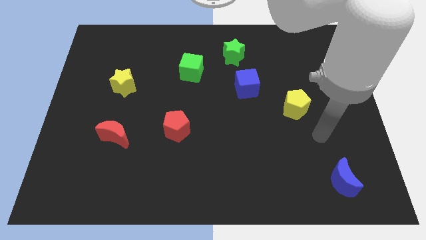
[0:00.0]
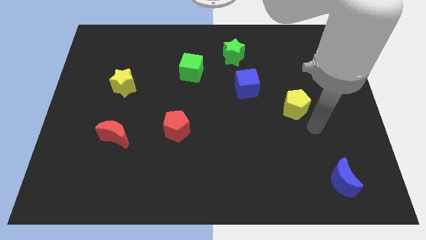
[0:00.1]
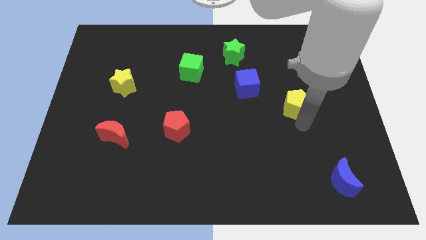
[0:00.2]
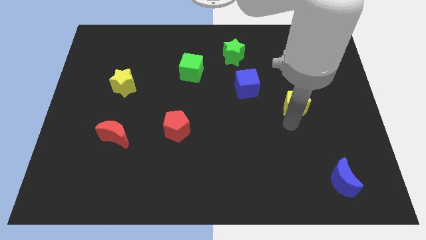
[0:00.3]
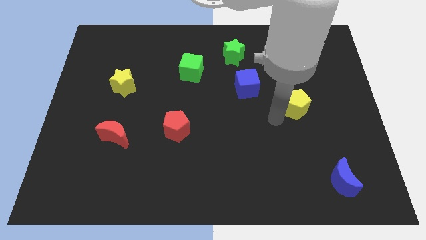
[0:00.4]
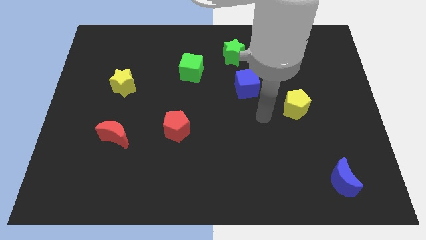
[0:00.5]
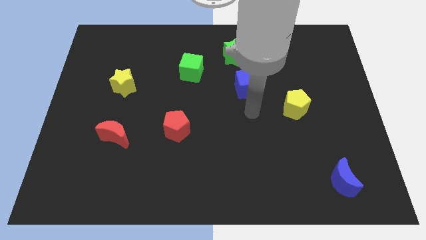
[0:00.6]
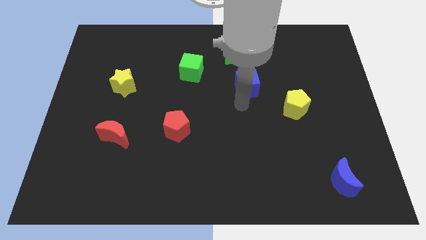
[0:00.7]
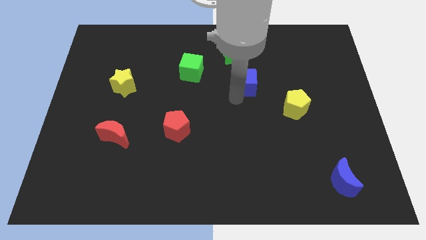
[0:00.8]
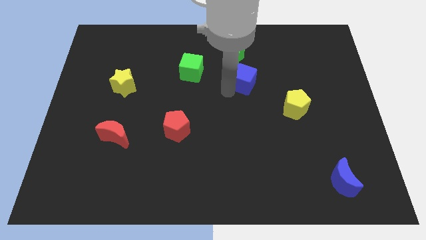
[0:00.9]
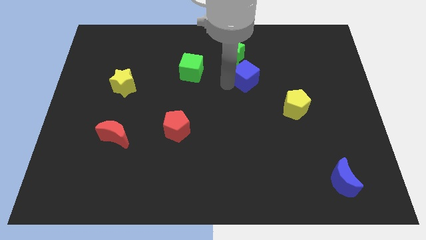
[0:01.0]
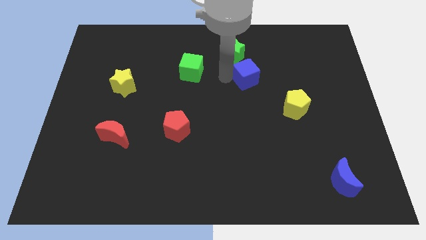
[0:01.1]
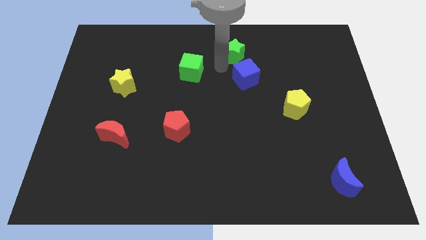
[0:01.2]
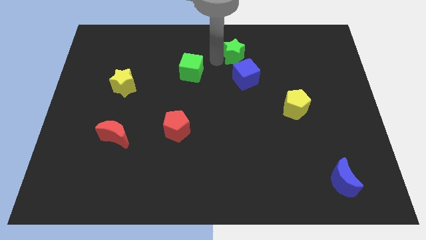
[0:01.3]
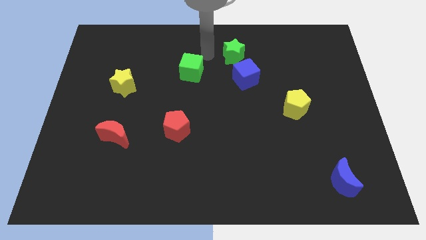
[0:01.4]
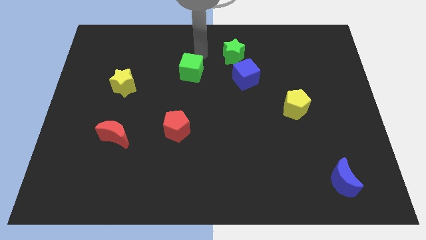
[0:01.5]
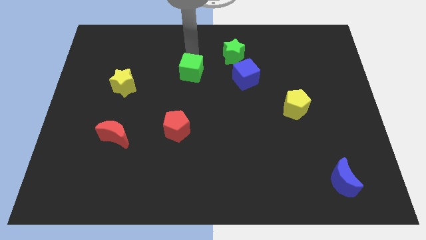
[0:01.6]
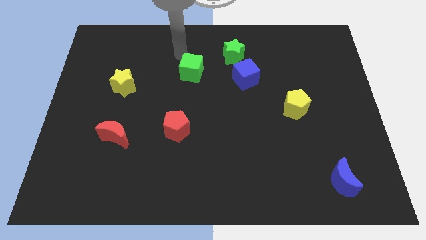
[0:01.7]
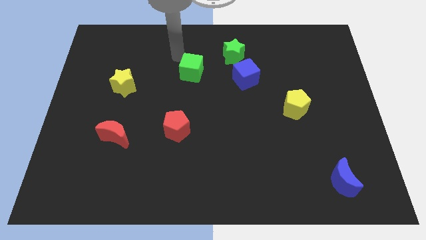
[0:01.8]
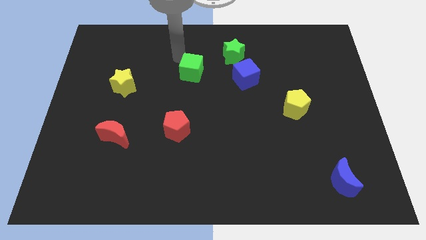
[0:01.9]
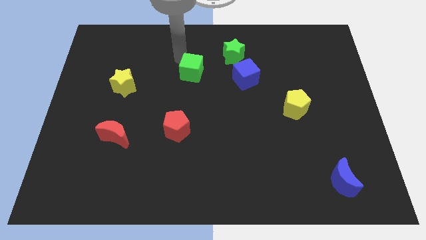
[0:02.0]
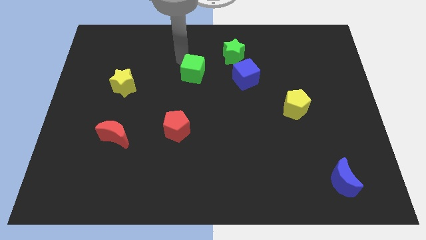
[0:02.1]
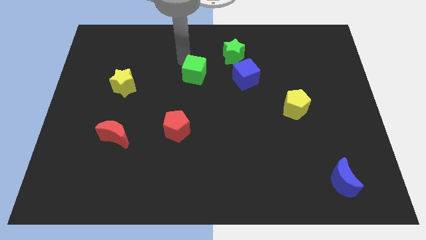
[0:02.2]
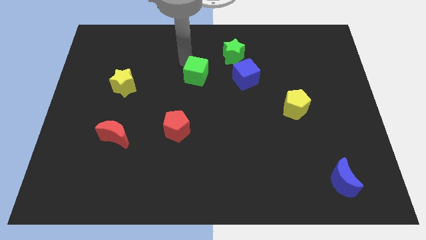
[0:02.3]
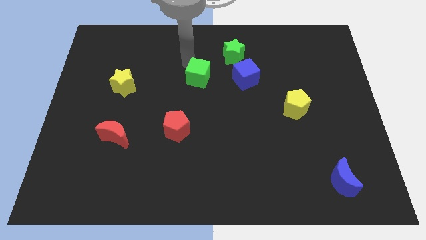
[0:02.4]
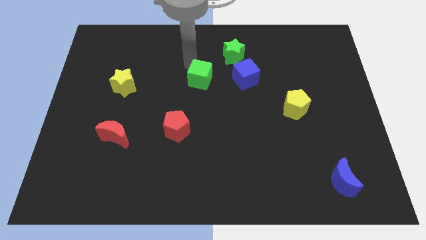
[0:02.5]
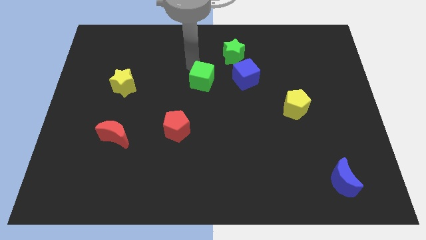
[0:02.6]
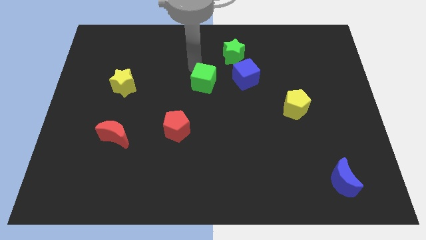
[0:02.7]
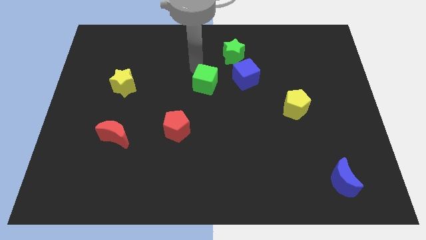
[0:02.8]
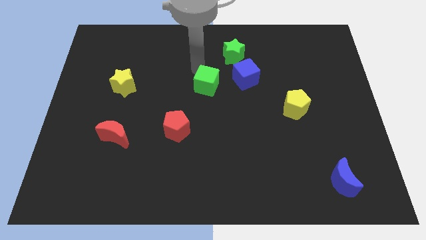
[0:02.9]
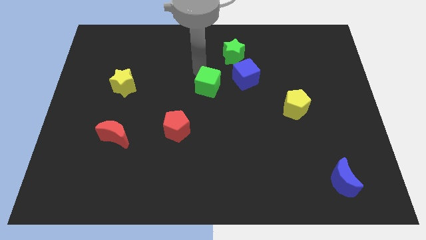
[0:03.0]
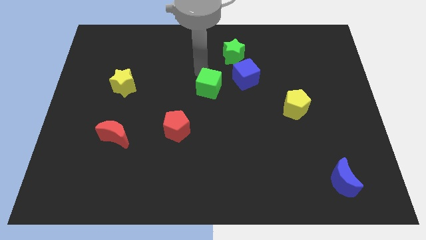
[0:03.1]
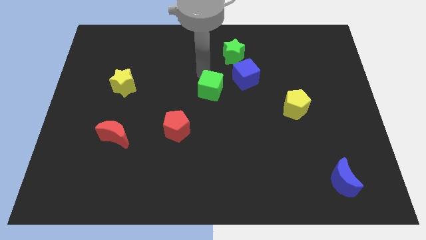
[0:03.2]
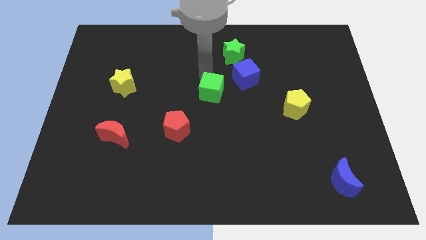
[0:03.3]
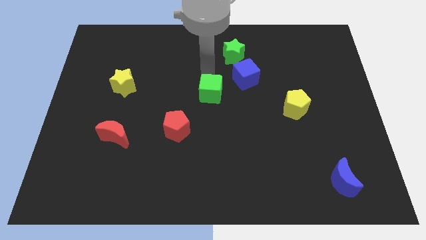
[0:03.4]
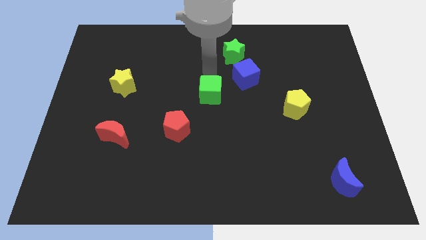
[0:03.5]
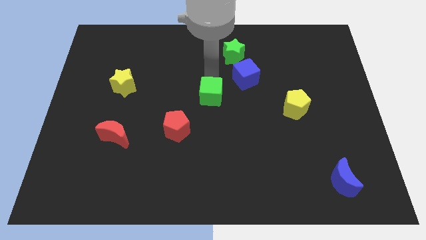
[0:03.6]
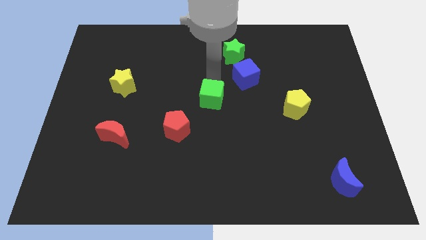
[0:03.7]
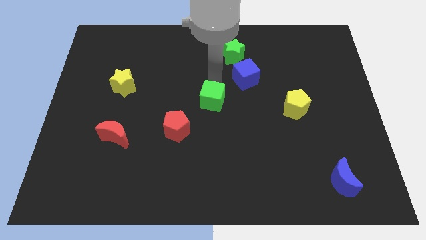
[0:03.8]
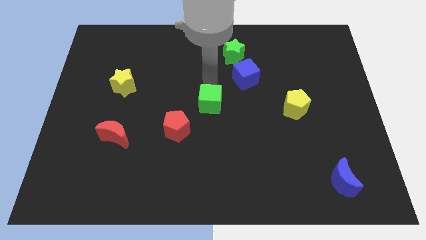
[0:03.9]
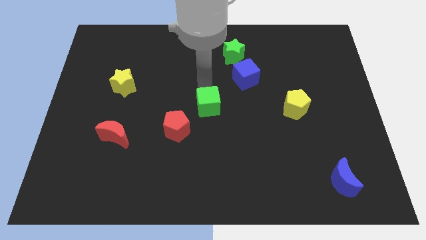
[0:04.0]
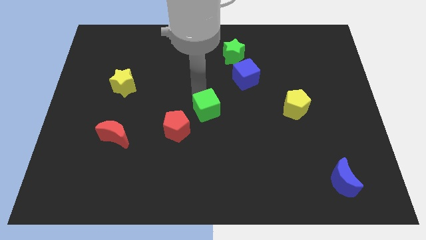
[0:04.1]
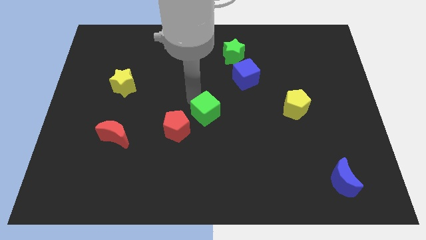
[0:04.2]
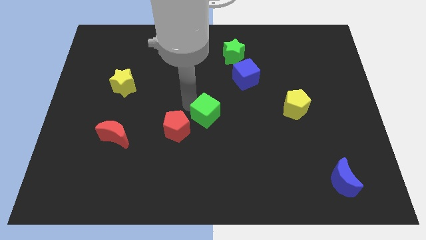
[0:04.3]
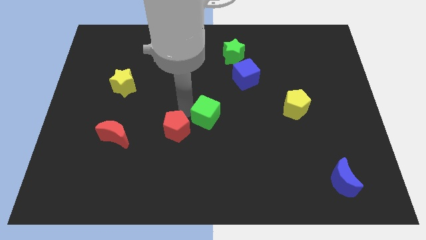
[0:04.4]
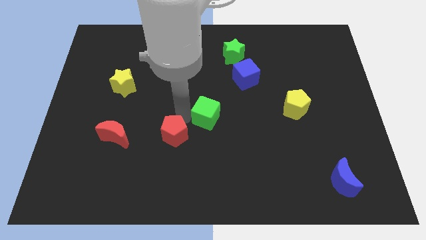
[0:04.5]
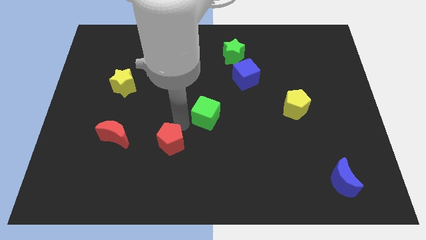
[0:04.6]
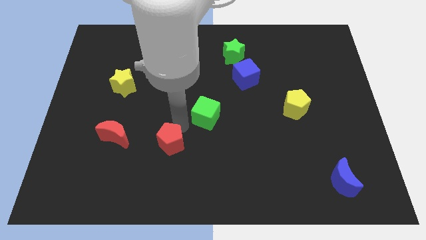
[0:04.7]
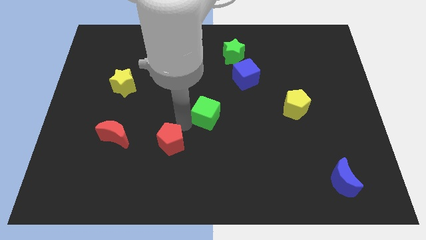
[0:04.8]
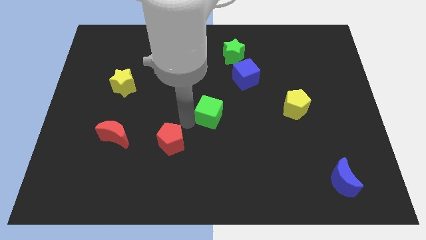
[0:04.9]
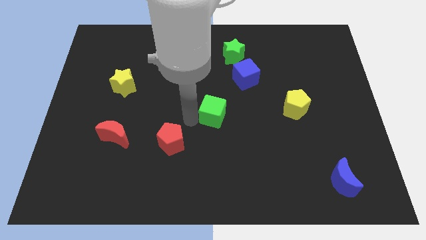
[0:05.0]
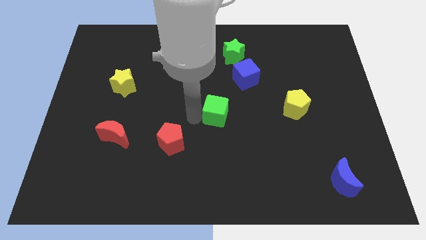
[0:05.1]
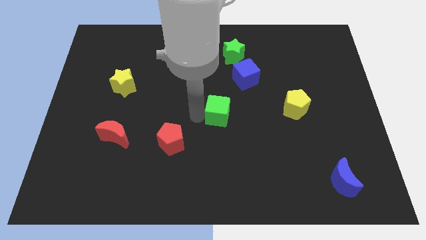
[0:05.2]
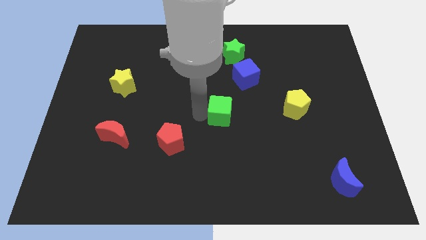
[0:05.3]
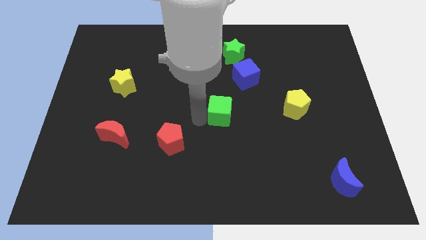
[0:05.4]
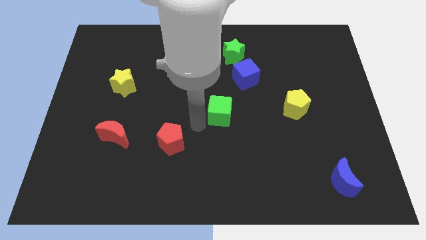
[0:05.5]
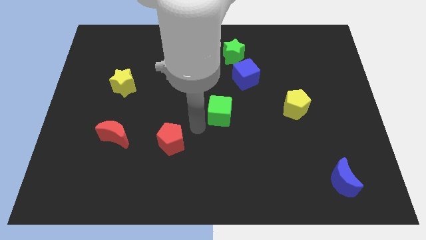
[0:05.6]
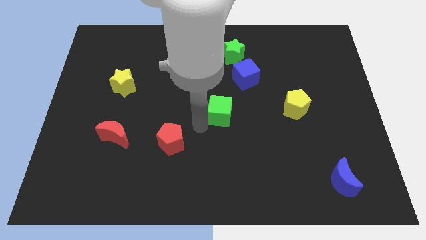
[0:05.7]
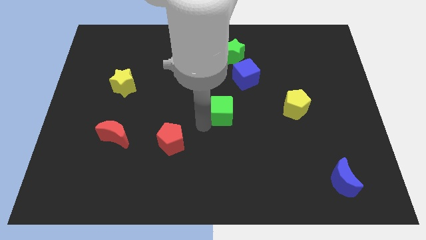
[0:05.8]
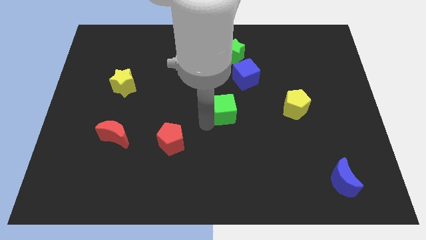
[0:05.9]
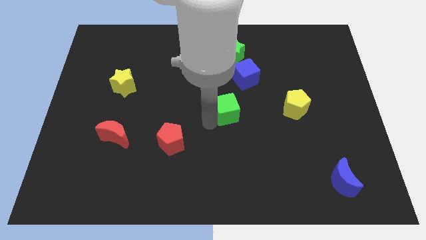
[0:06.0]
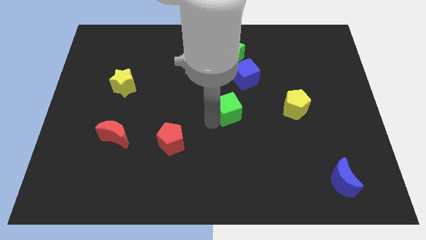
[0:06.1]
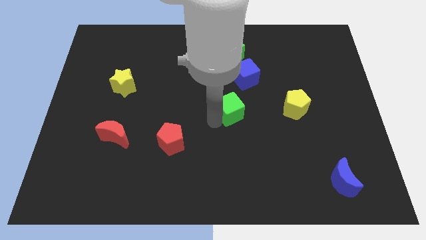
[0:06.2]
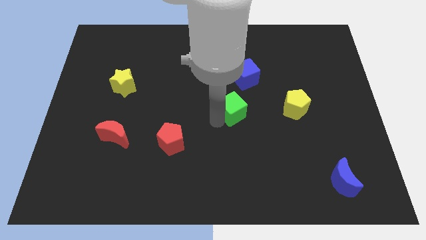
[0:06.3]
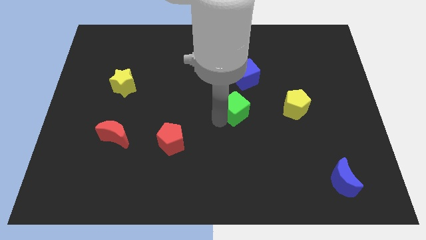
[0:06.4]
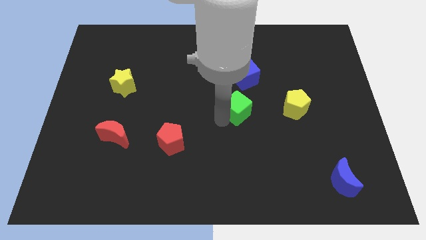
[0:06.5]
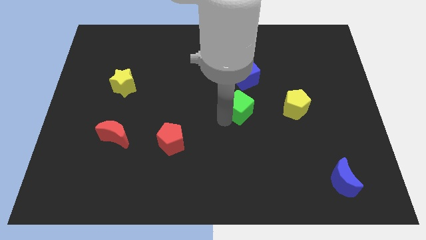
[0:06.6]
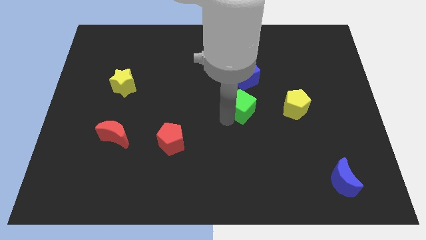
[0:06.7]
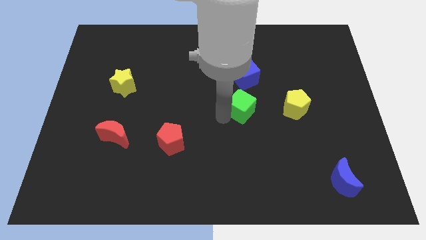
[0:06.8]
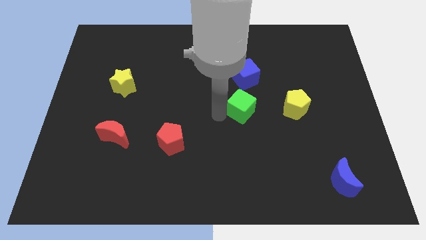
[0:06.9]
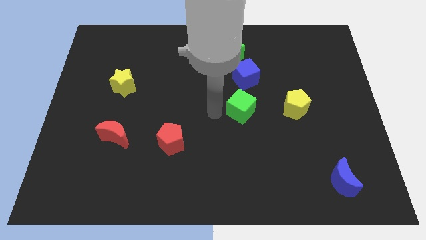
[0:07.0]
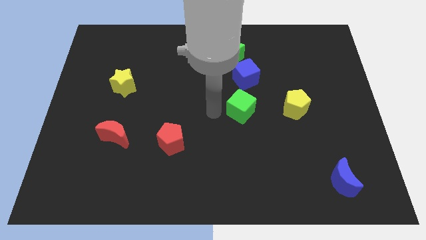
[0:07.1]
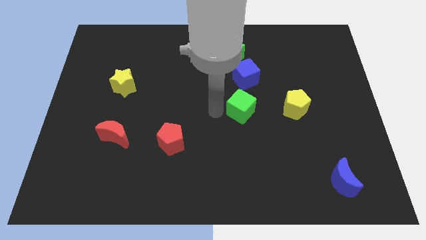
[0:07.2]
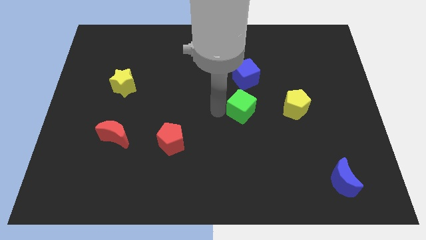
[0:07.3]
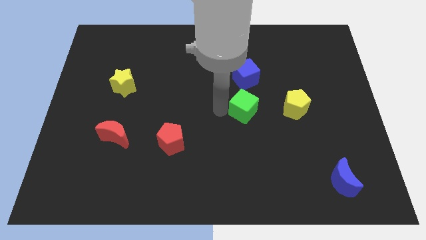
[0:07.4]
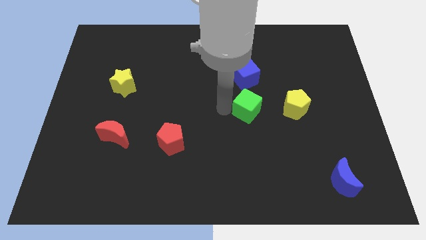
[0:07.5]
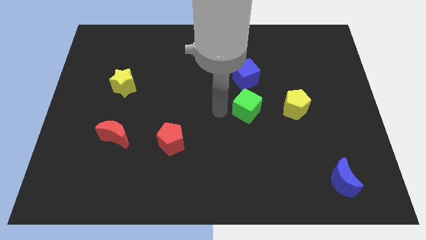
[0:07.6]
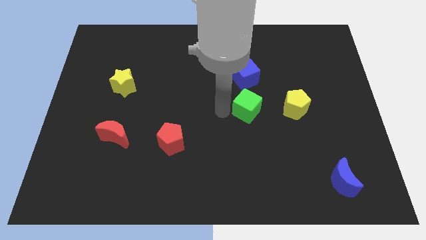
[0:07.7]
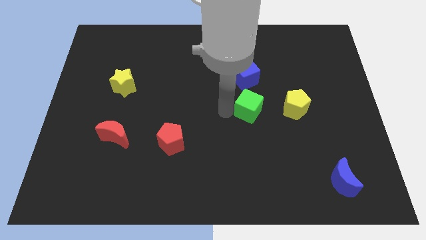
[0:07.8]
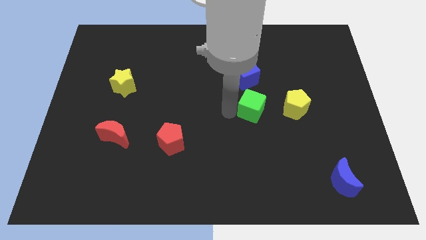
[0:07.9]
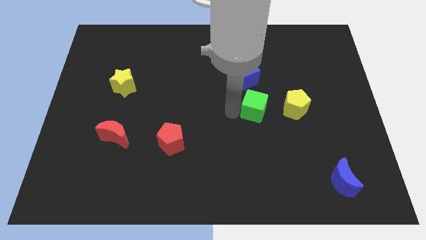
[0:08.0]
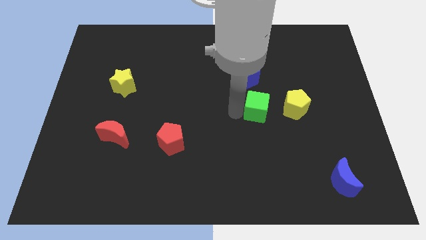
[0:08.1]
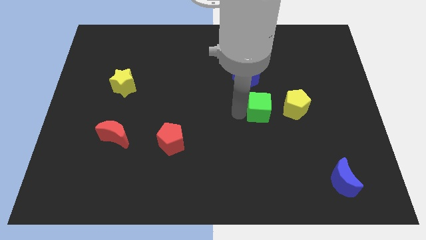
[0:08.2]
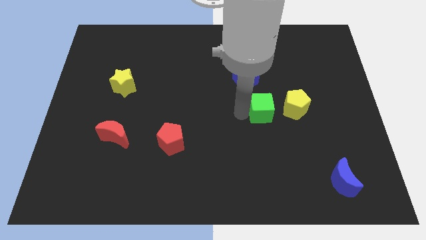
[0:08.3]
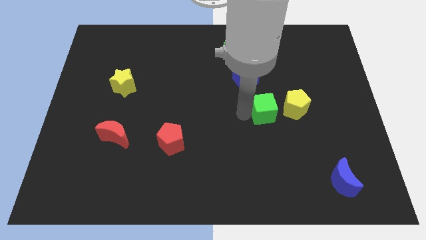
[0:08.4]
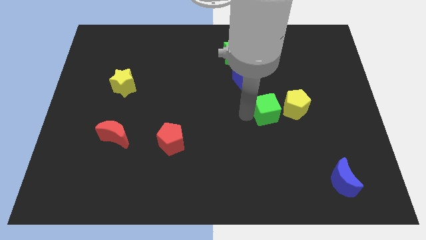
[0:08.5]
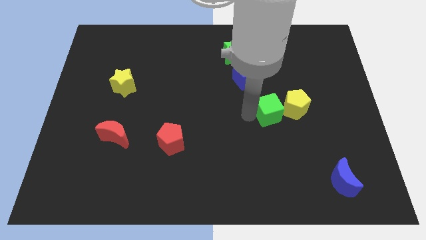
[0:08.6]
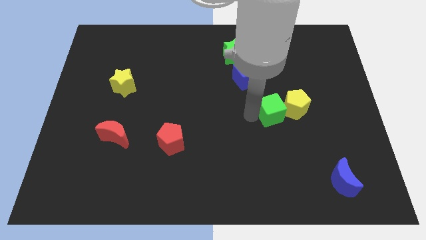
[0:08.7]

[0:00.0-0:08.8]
move the green cube next to the yellow pentagon
